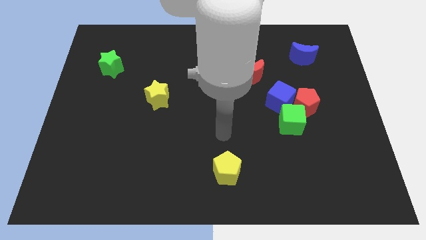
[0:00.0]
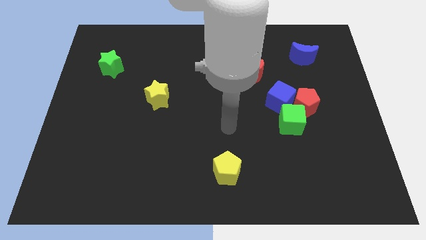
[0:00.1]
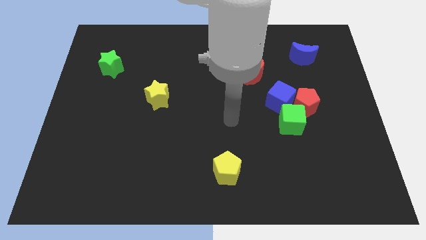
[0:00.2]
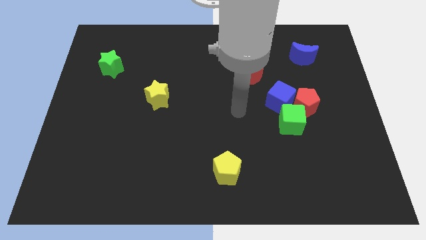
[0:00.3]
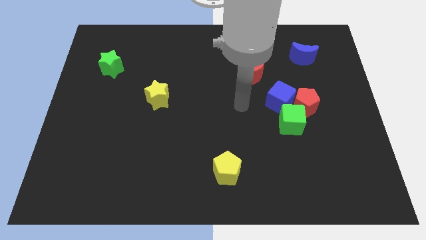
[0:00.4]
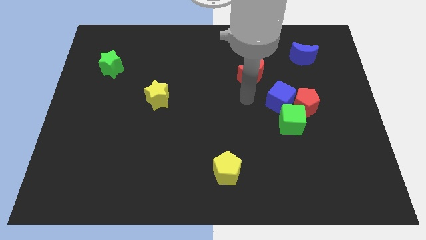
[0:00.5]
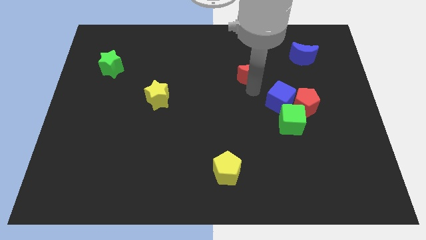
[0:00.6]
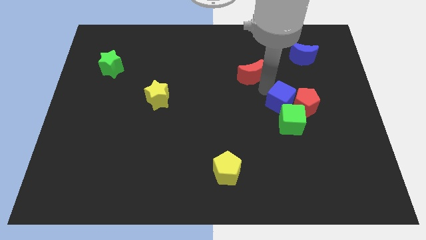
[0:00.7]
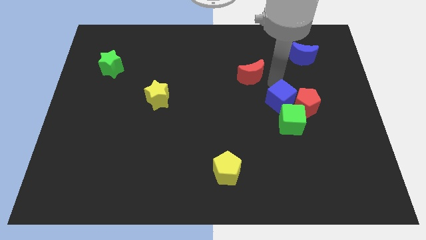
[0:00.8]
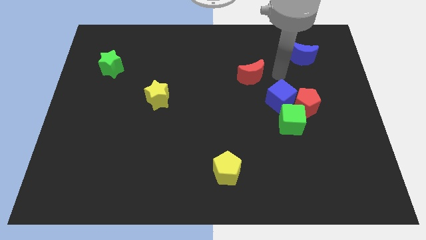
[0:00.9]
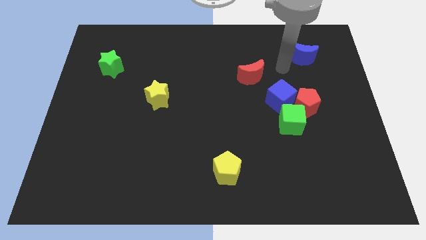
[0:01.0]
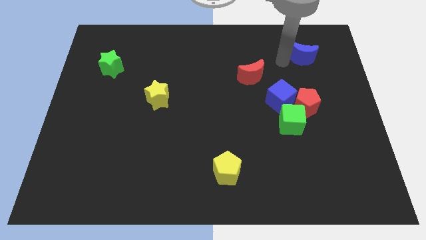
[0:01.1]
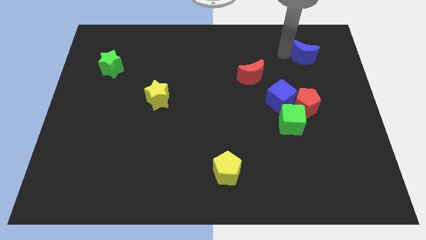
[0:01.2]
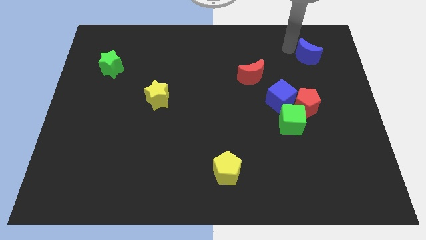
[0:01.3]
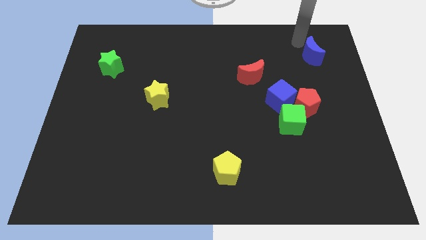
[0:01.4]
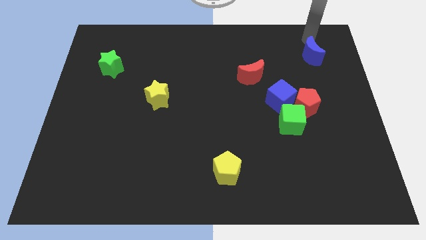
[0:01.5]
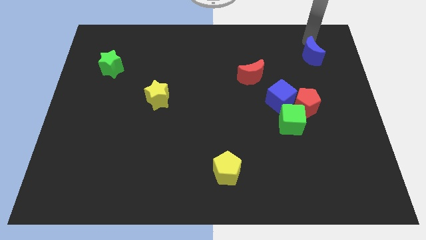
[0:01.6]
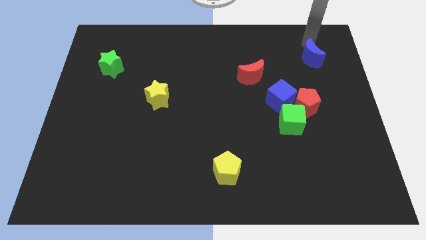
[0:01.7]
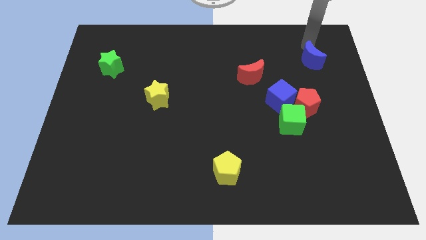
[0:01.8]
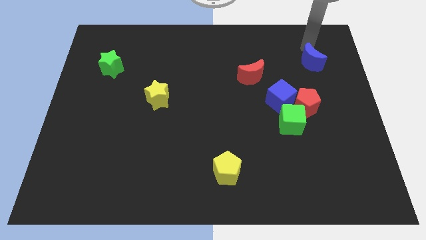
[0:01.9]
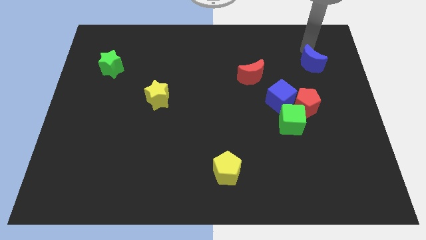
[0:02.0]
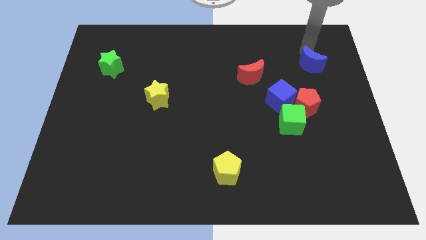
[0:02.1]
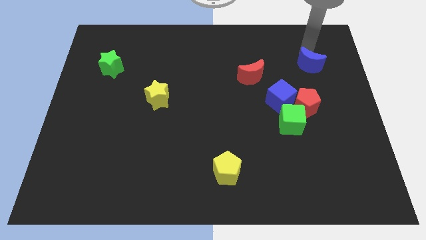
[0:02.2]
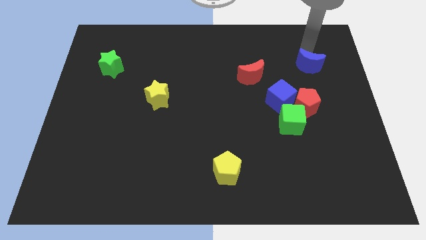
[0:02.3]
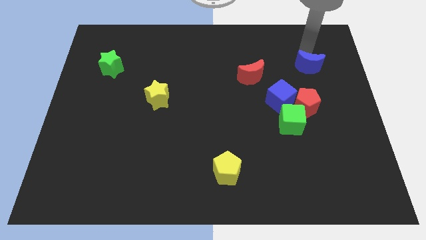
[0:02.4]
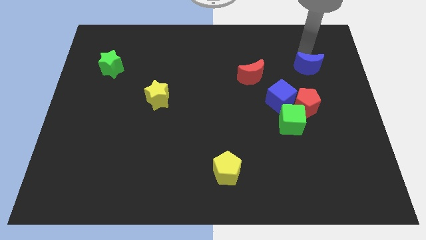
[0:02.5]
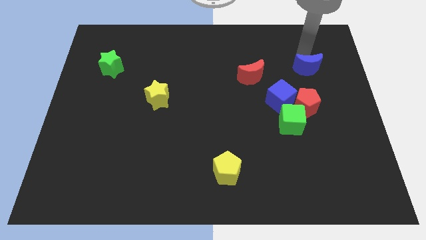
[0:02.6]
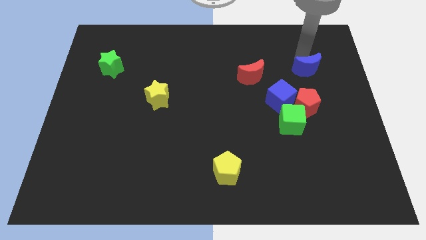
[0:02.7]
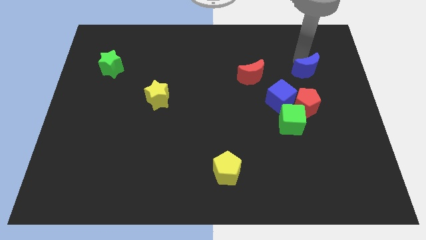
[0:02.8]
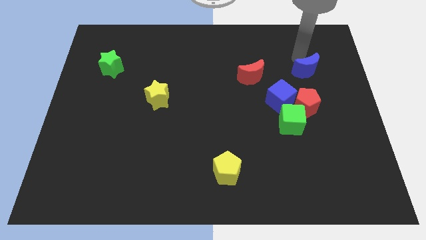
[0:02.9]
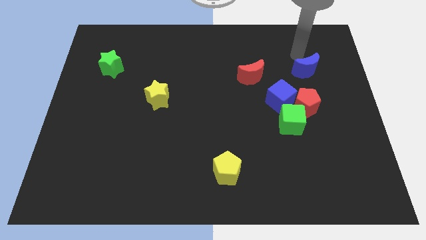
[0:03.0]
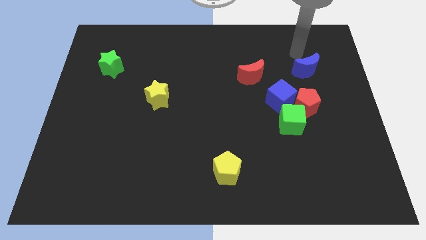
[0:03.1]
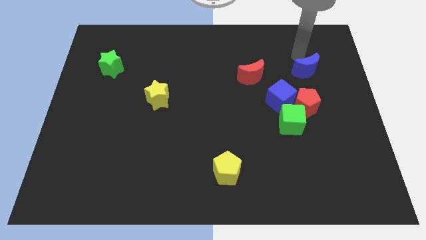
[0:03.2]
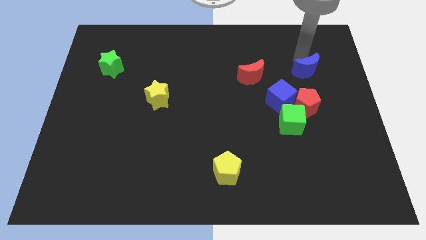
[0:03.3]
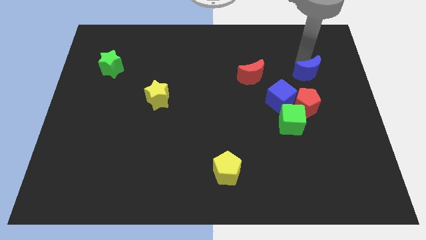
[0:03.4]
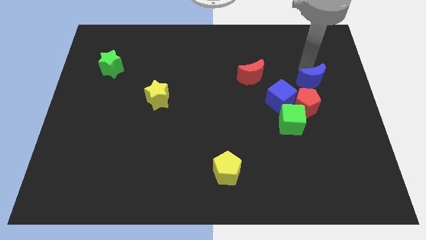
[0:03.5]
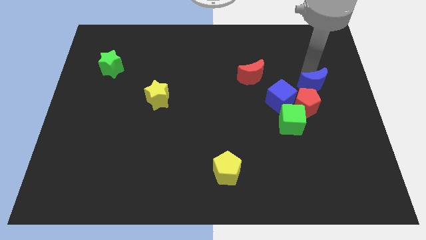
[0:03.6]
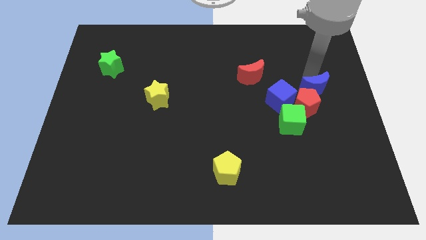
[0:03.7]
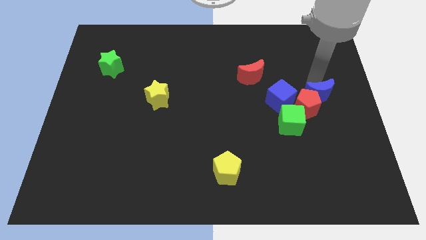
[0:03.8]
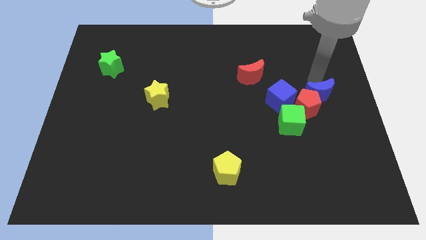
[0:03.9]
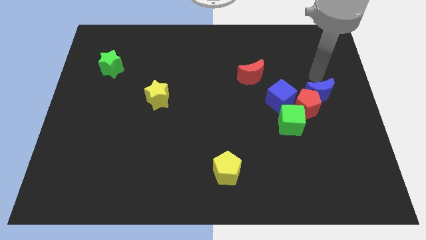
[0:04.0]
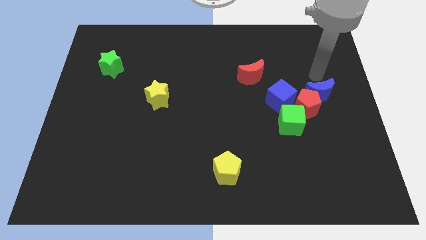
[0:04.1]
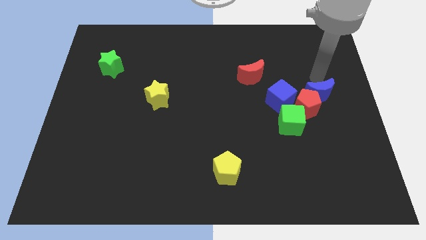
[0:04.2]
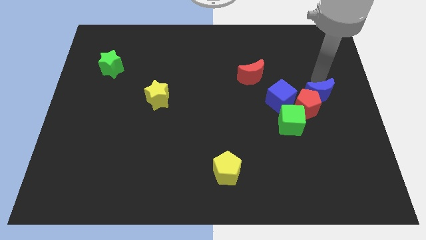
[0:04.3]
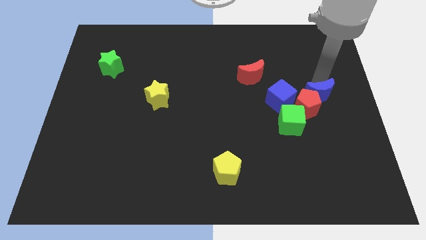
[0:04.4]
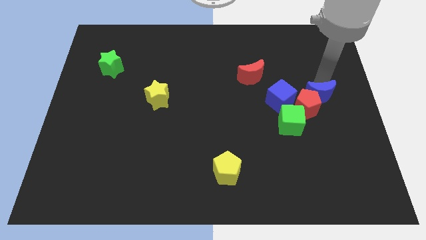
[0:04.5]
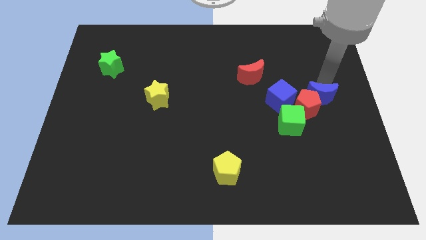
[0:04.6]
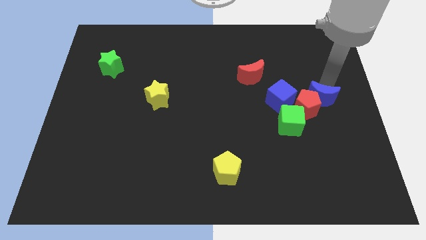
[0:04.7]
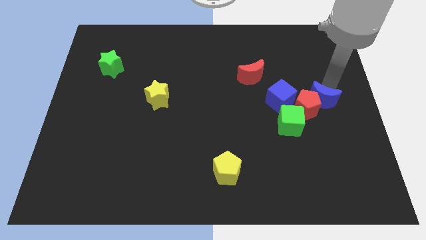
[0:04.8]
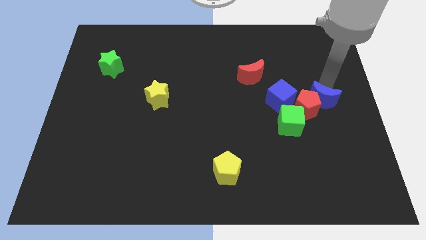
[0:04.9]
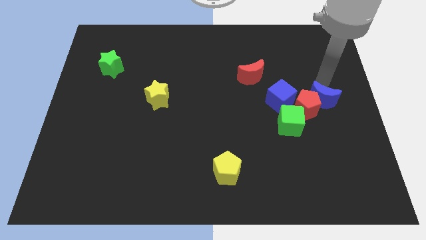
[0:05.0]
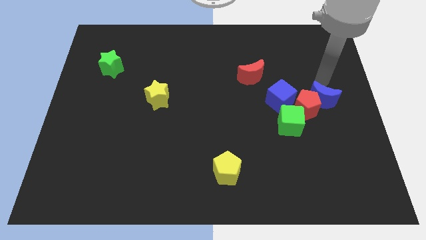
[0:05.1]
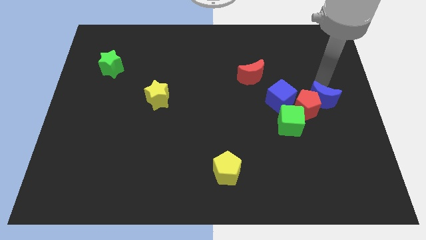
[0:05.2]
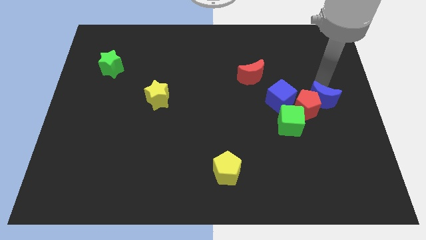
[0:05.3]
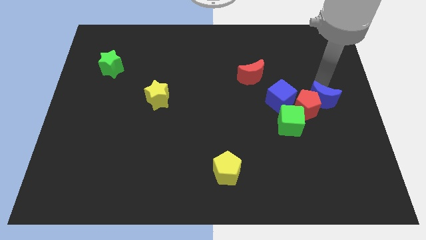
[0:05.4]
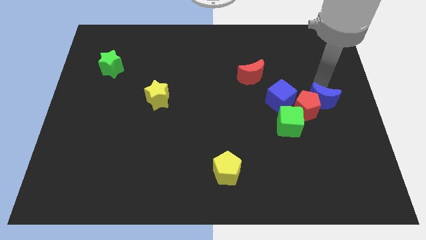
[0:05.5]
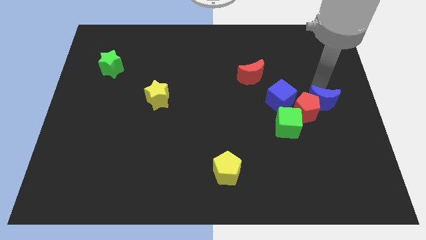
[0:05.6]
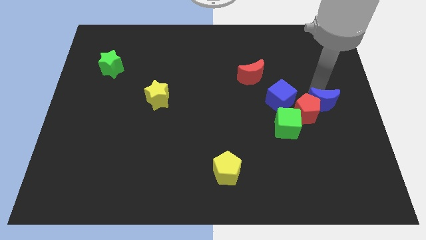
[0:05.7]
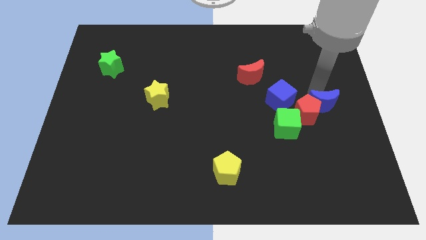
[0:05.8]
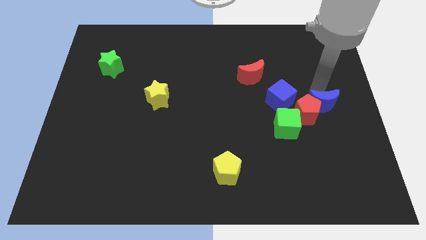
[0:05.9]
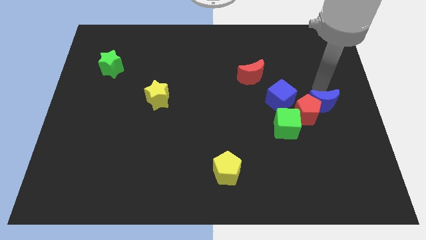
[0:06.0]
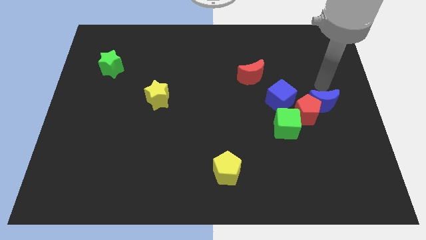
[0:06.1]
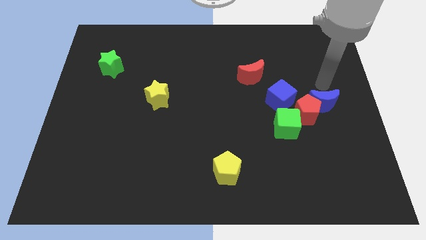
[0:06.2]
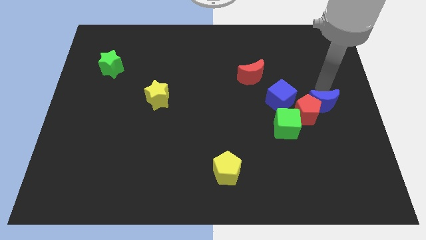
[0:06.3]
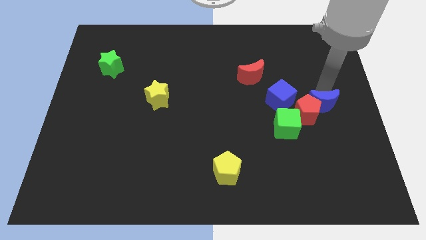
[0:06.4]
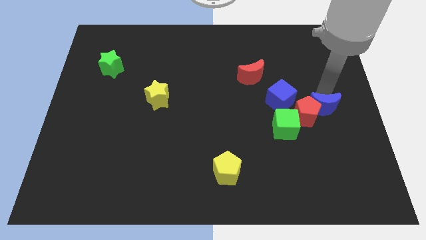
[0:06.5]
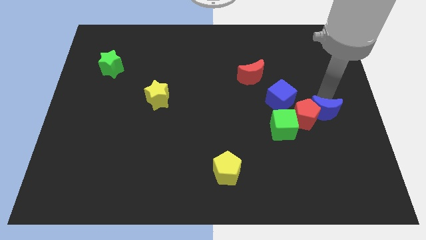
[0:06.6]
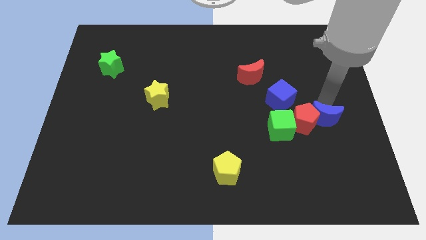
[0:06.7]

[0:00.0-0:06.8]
push the blue moon downwards

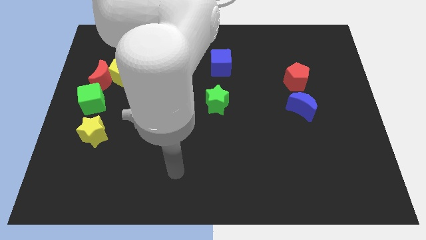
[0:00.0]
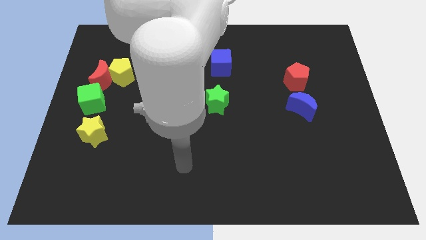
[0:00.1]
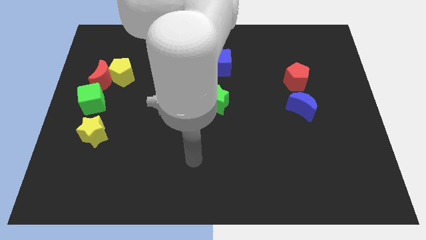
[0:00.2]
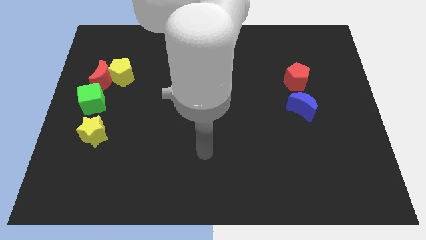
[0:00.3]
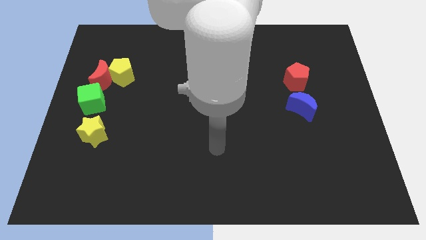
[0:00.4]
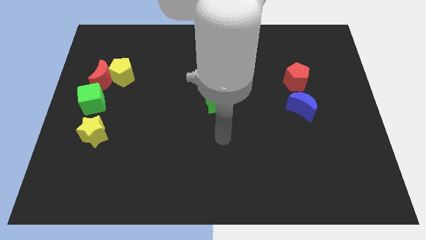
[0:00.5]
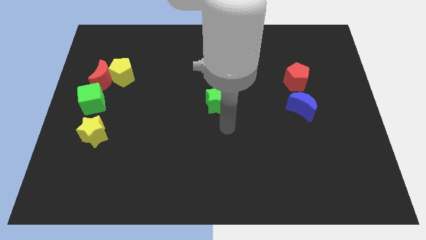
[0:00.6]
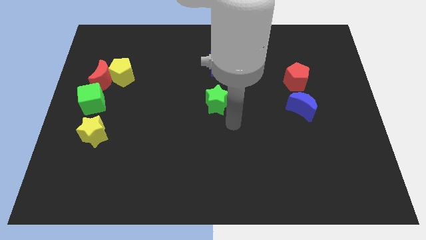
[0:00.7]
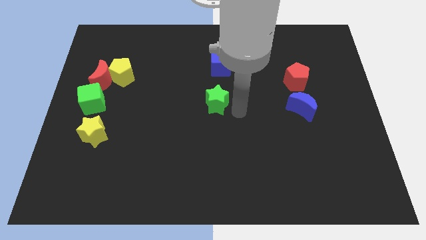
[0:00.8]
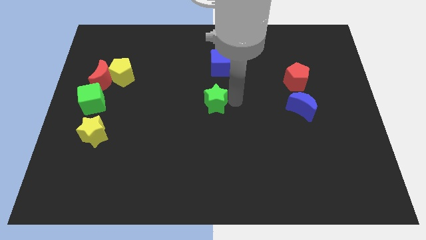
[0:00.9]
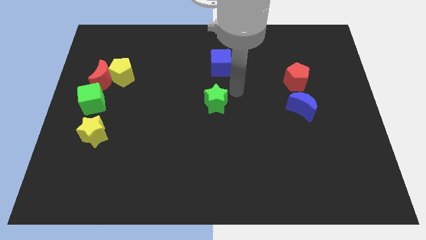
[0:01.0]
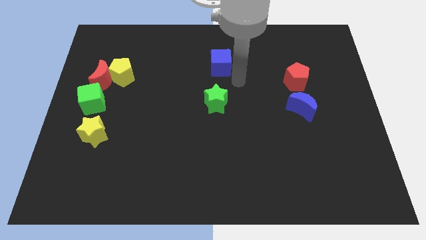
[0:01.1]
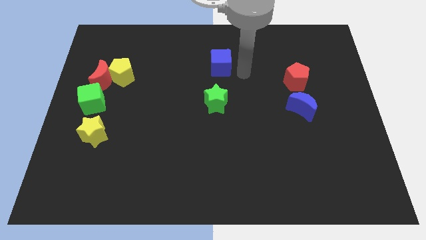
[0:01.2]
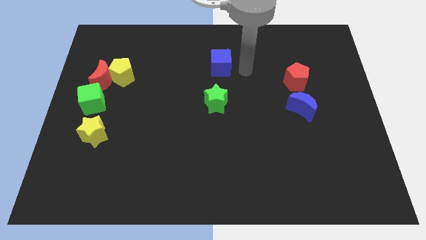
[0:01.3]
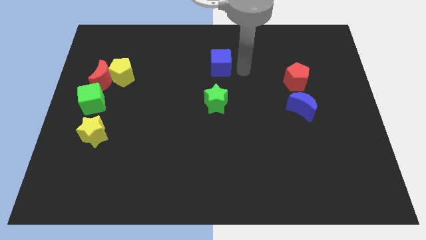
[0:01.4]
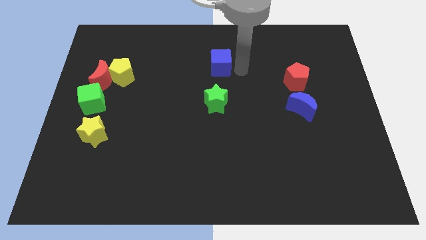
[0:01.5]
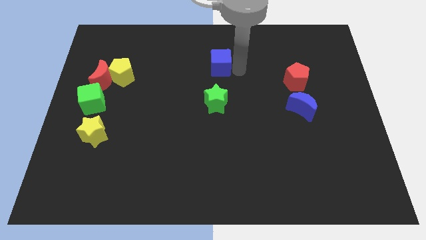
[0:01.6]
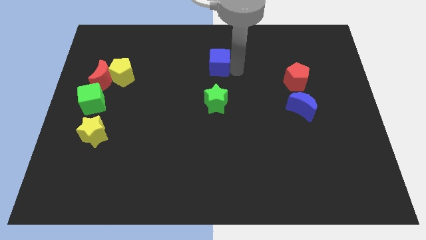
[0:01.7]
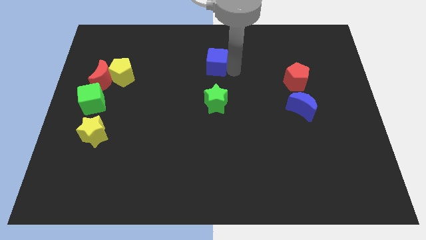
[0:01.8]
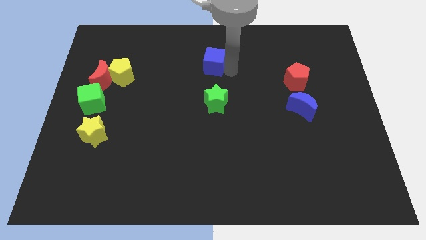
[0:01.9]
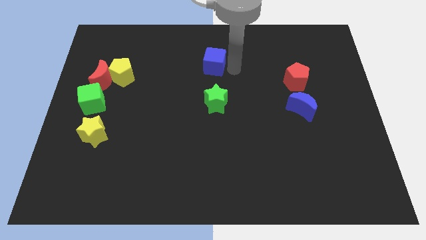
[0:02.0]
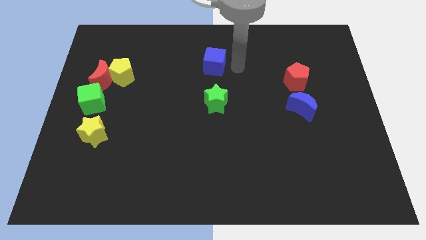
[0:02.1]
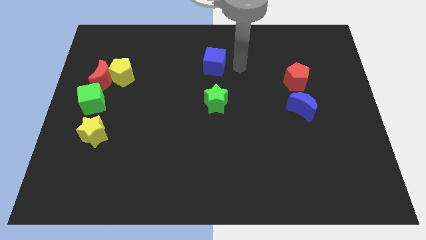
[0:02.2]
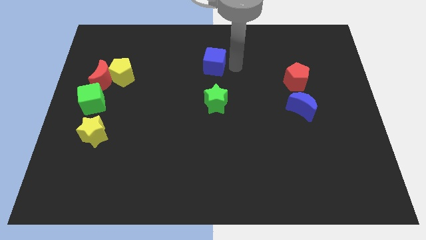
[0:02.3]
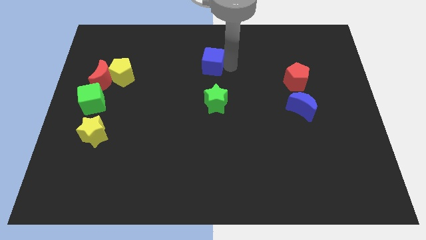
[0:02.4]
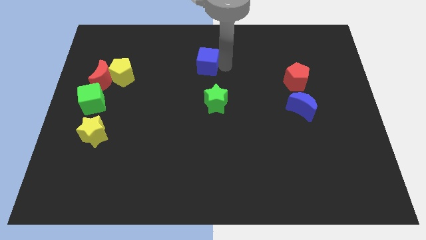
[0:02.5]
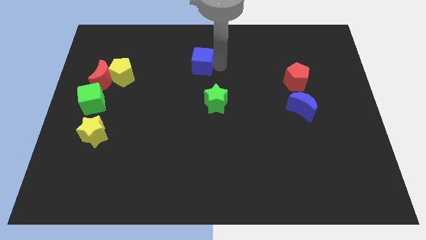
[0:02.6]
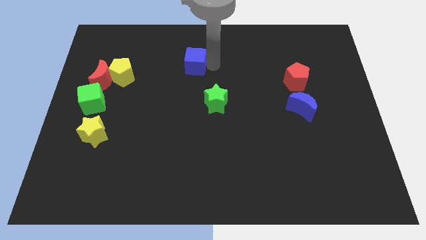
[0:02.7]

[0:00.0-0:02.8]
push the blue cube to the left slightly
